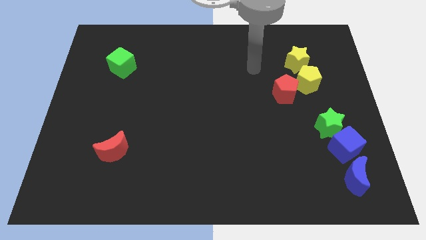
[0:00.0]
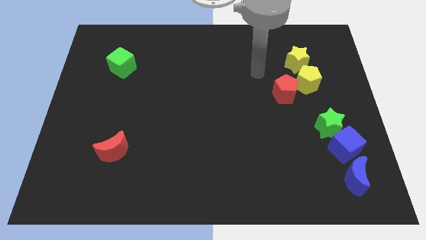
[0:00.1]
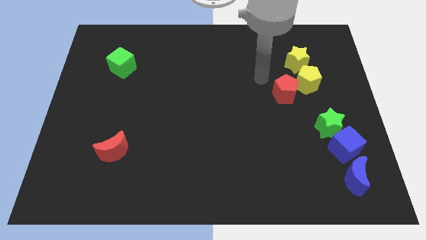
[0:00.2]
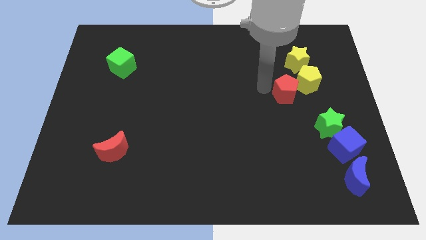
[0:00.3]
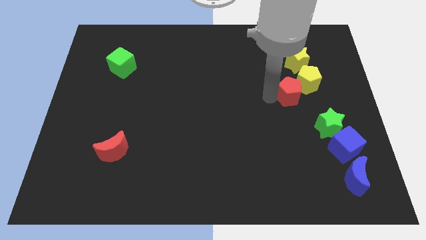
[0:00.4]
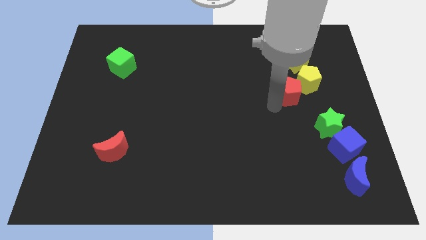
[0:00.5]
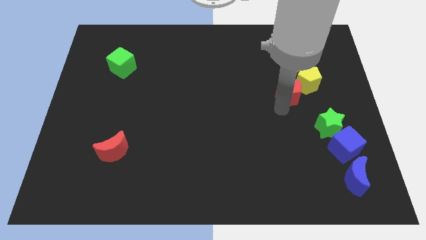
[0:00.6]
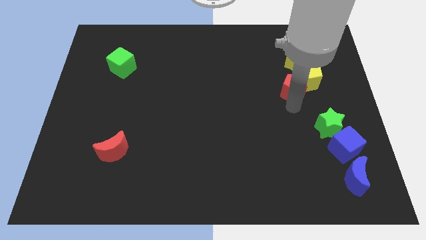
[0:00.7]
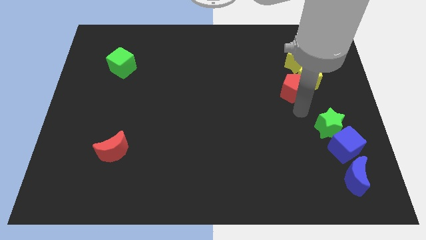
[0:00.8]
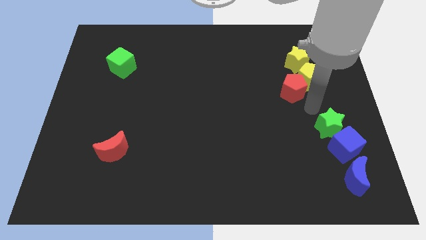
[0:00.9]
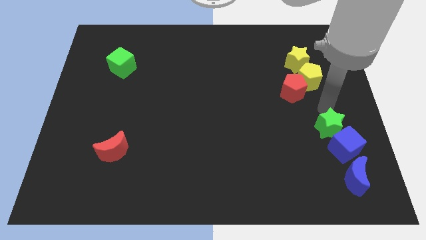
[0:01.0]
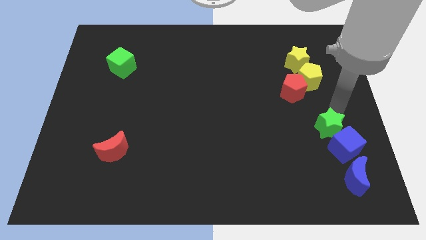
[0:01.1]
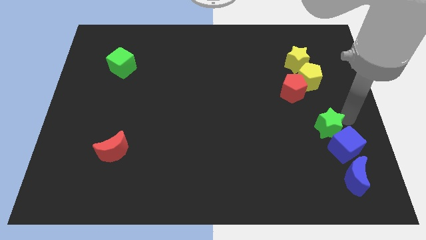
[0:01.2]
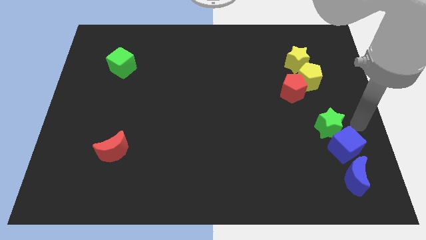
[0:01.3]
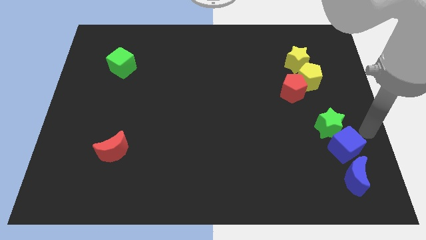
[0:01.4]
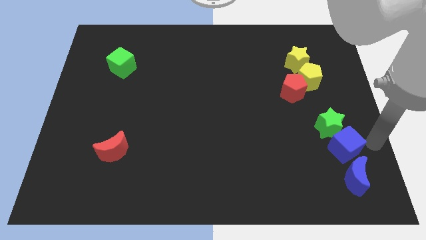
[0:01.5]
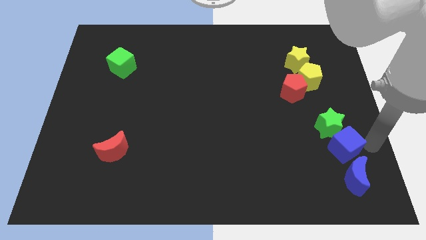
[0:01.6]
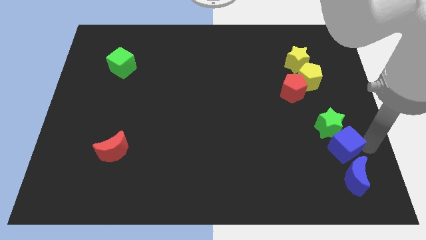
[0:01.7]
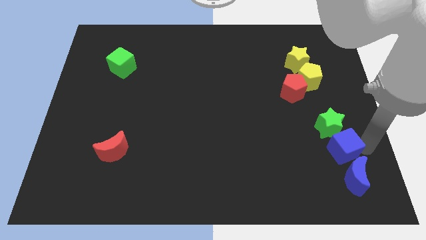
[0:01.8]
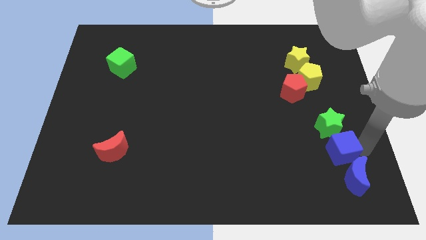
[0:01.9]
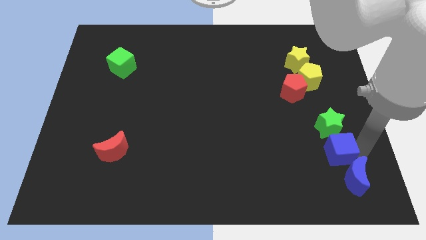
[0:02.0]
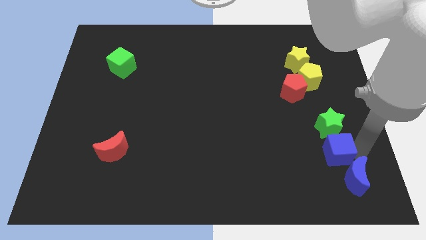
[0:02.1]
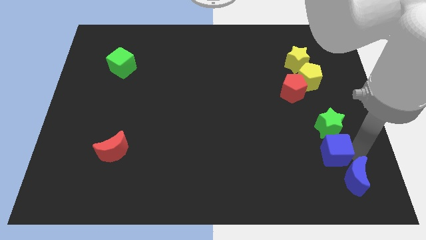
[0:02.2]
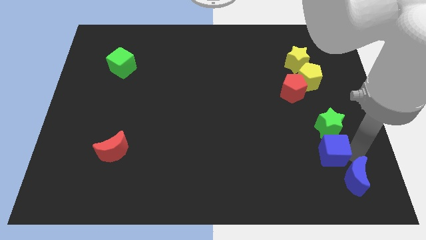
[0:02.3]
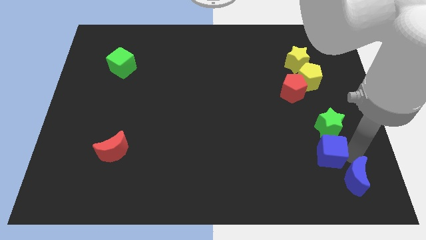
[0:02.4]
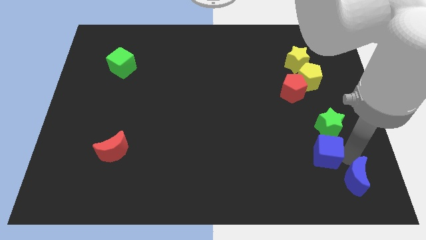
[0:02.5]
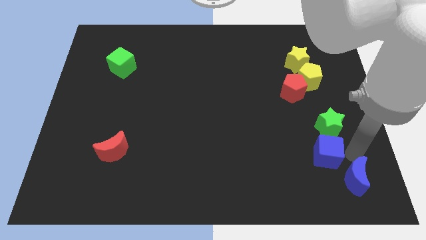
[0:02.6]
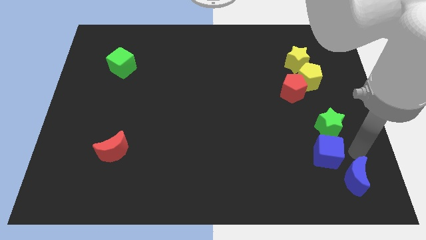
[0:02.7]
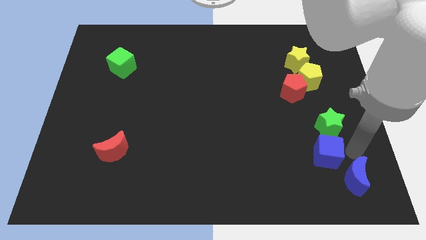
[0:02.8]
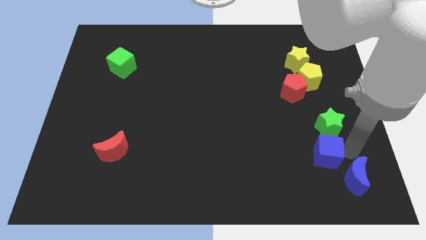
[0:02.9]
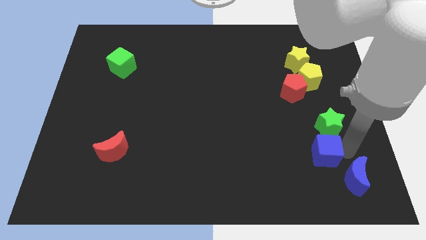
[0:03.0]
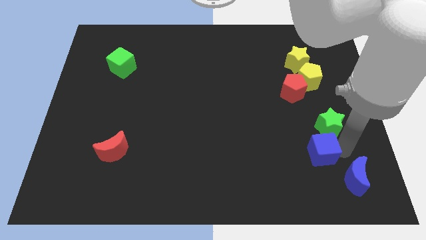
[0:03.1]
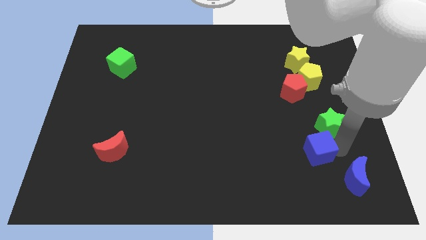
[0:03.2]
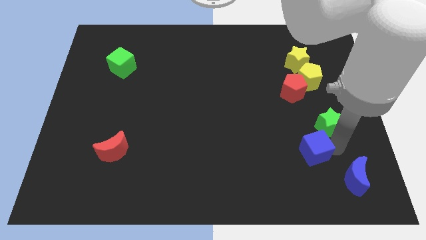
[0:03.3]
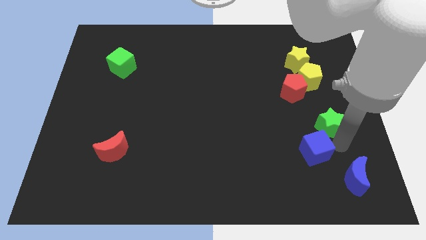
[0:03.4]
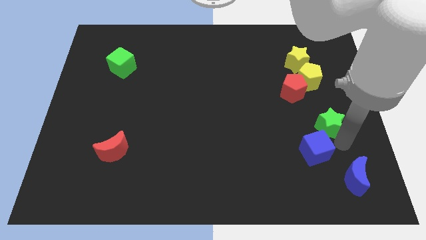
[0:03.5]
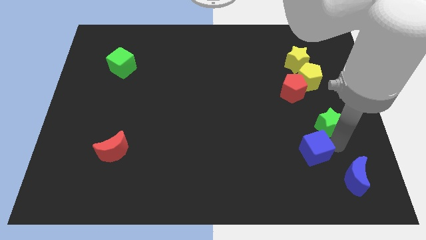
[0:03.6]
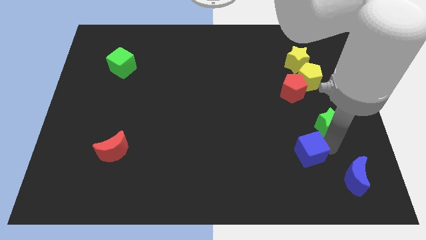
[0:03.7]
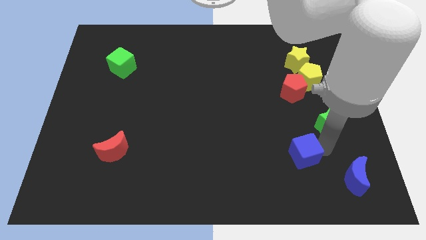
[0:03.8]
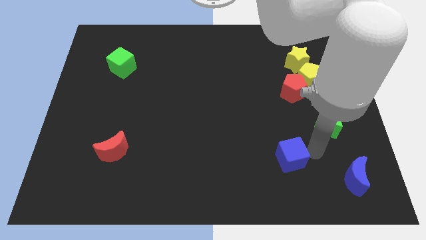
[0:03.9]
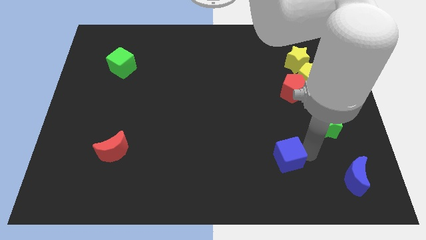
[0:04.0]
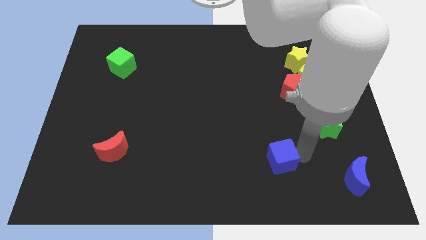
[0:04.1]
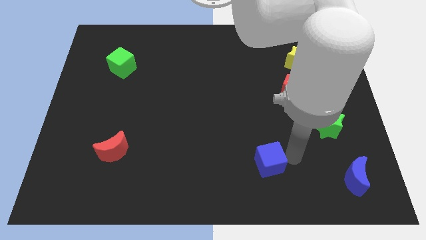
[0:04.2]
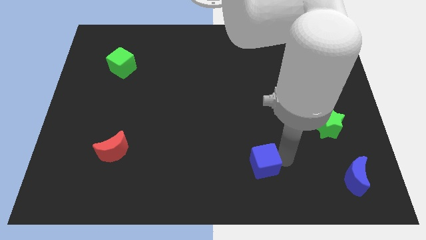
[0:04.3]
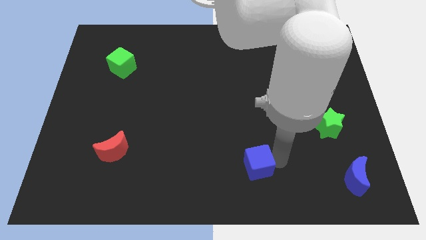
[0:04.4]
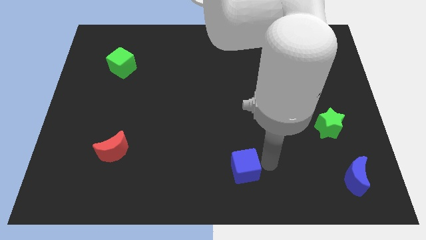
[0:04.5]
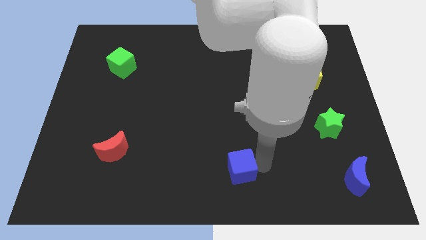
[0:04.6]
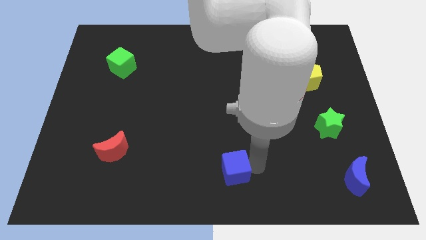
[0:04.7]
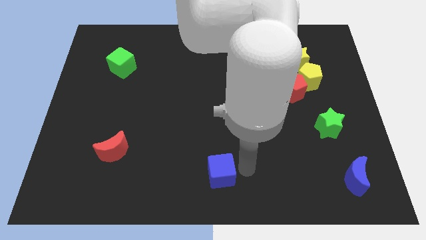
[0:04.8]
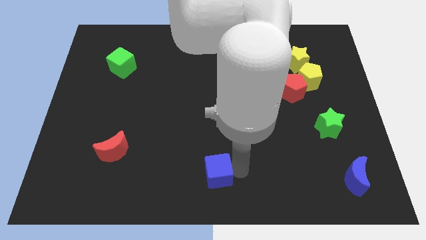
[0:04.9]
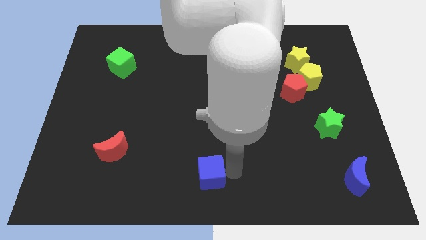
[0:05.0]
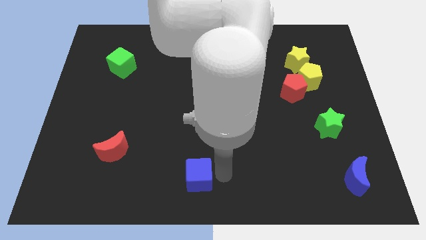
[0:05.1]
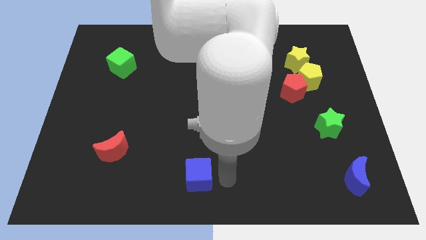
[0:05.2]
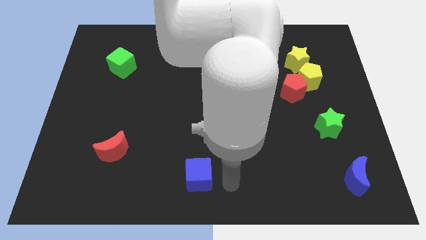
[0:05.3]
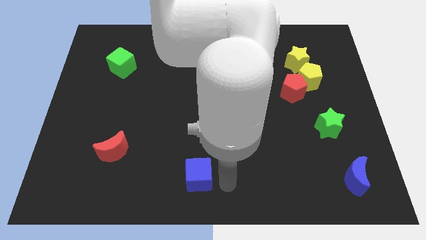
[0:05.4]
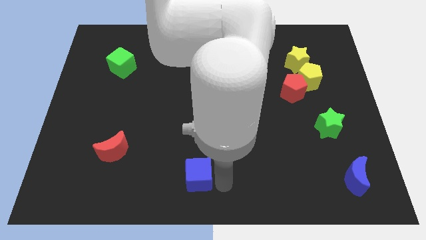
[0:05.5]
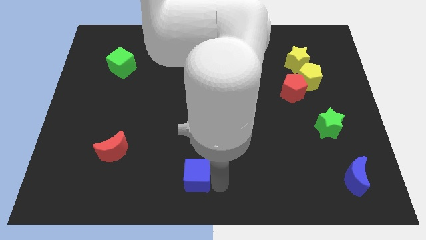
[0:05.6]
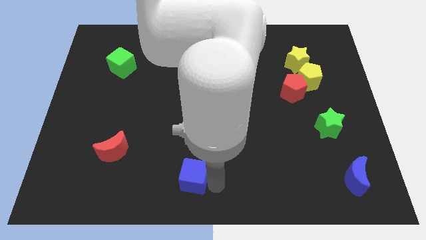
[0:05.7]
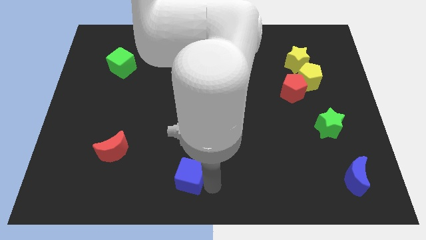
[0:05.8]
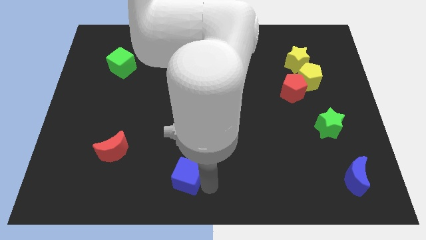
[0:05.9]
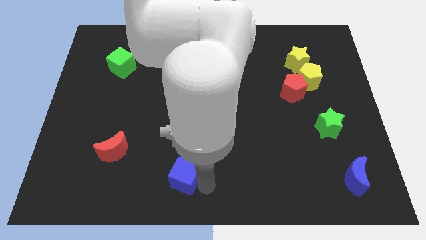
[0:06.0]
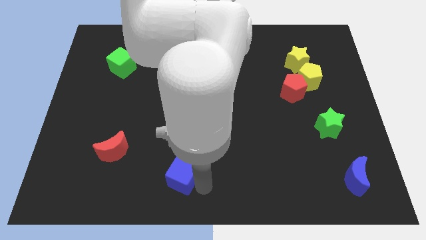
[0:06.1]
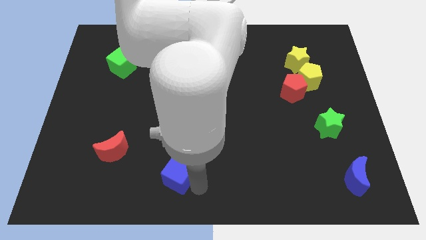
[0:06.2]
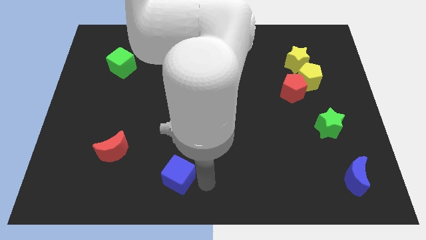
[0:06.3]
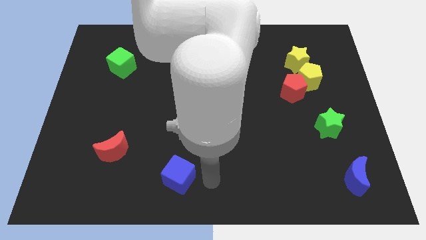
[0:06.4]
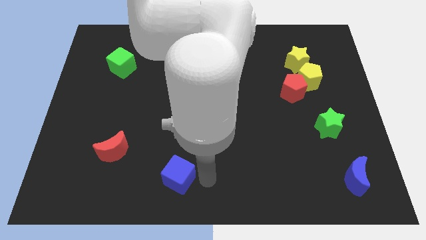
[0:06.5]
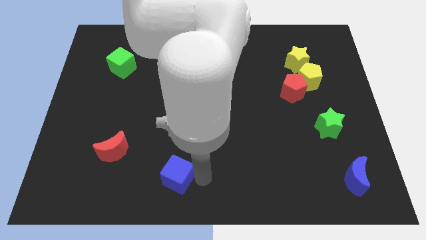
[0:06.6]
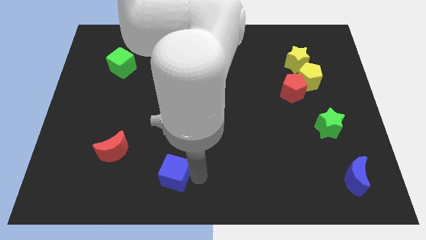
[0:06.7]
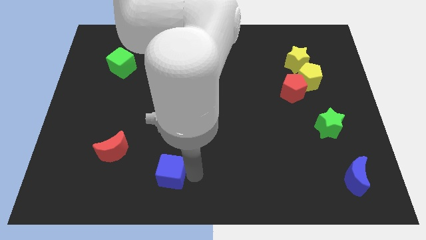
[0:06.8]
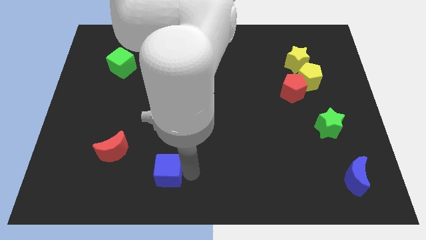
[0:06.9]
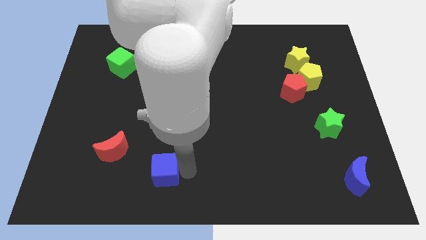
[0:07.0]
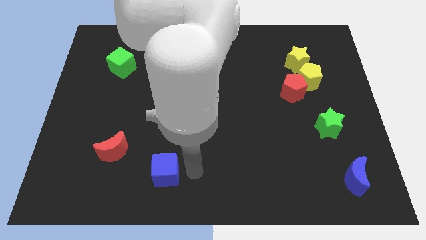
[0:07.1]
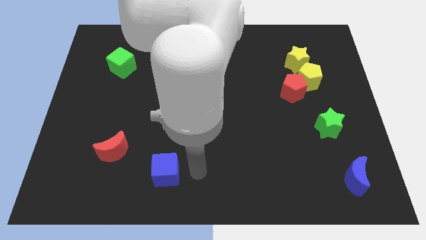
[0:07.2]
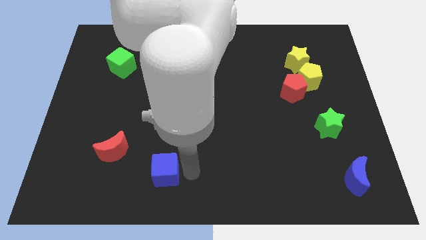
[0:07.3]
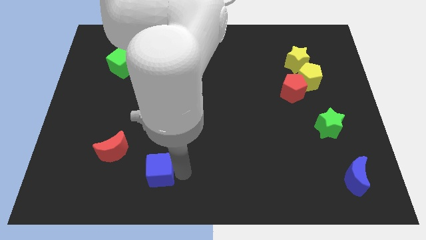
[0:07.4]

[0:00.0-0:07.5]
push the blue cube diagonally down and to the right of the red moon

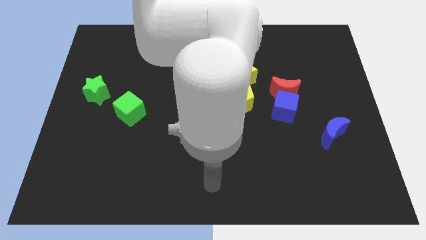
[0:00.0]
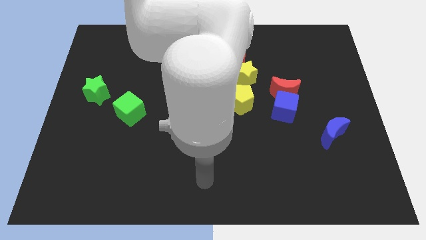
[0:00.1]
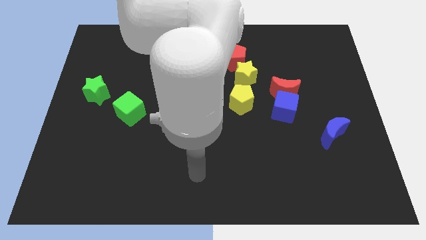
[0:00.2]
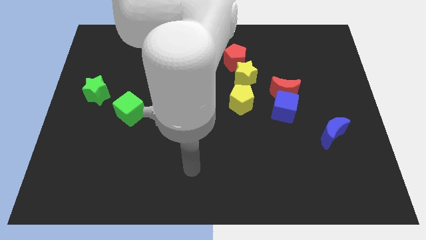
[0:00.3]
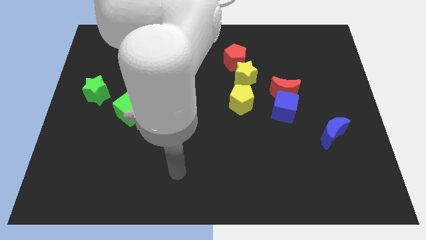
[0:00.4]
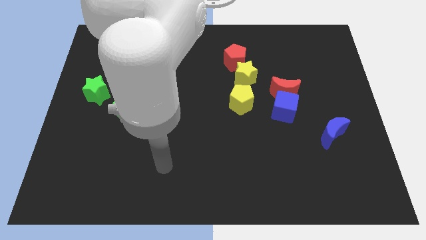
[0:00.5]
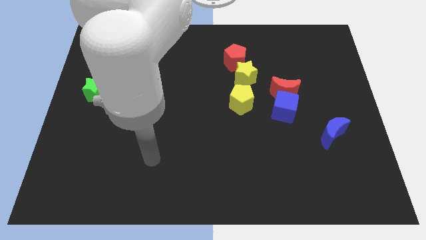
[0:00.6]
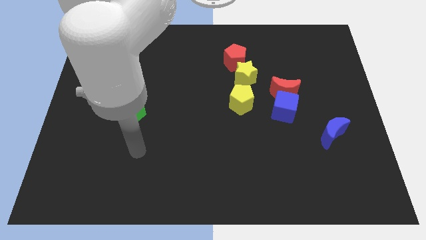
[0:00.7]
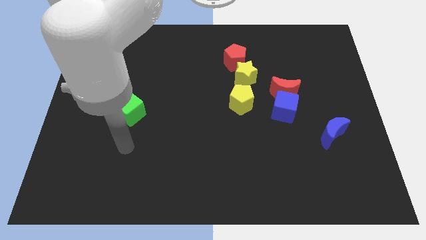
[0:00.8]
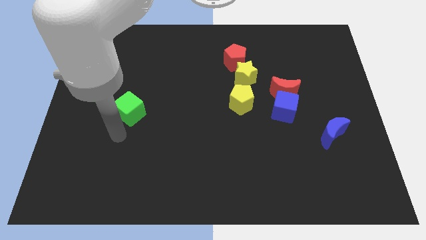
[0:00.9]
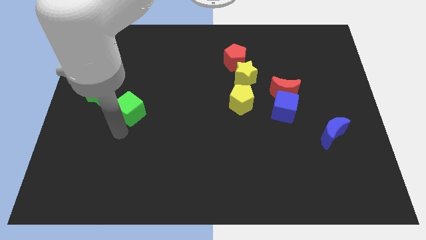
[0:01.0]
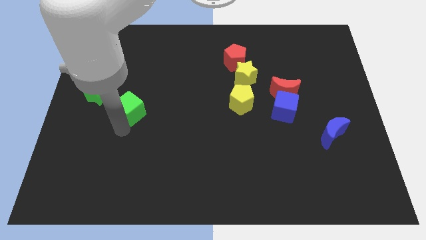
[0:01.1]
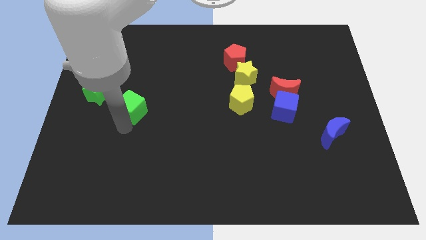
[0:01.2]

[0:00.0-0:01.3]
put the green cube to the right side of the green star
